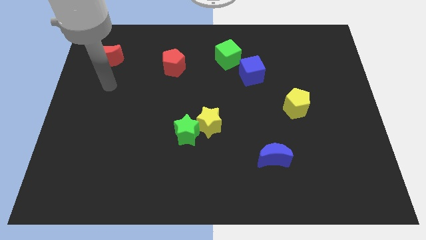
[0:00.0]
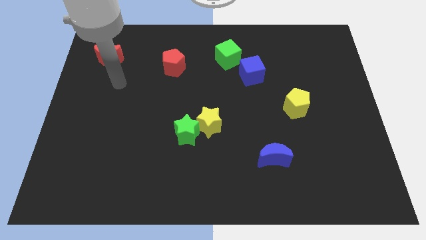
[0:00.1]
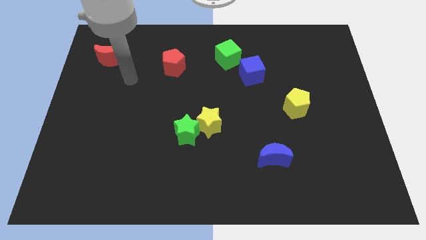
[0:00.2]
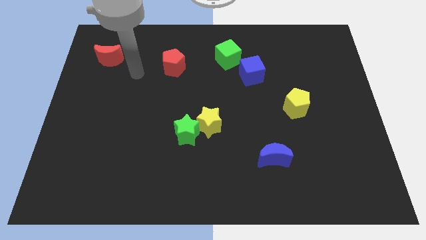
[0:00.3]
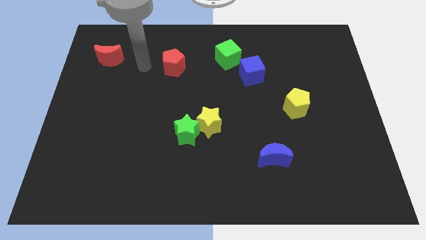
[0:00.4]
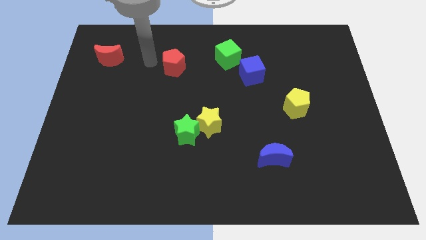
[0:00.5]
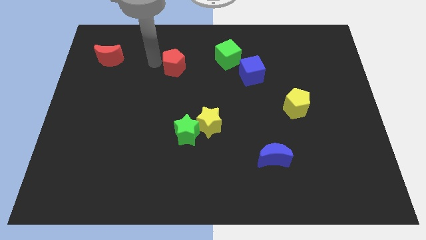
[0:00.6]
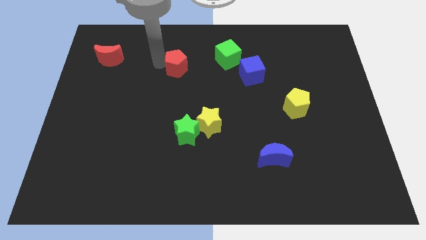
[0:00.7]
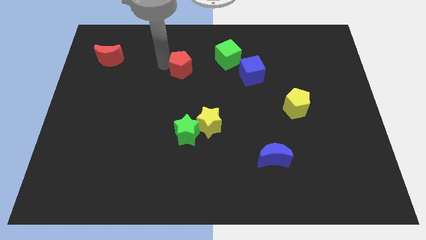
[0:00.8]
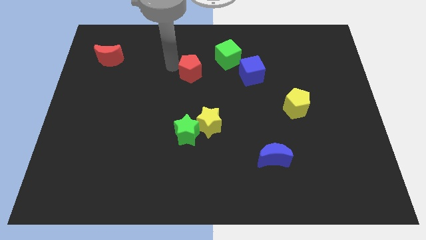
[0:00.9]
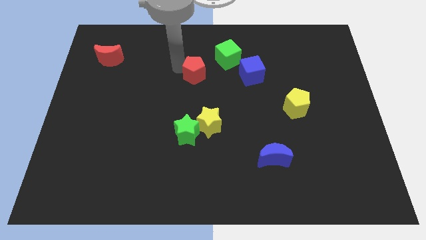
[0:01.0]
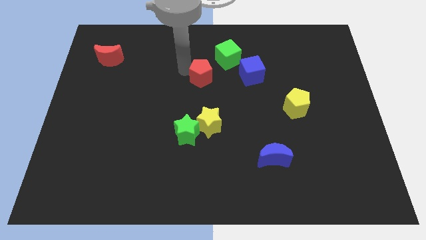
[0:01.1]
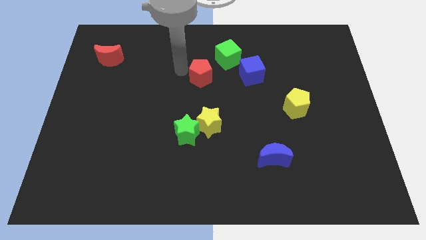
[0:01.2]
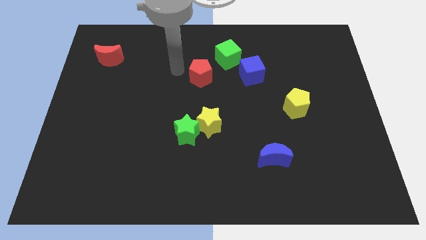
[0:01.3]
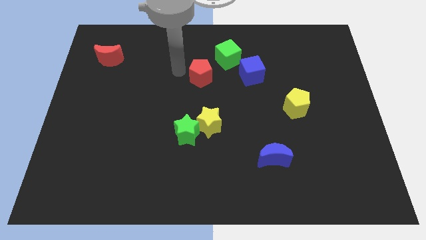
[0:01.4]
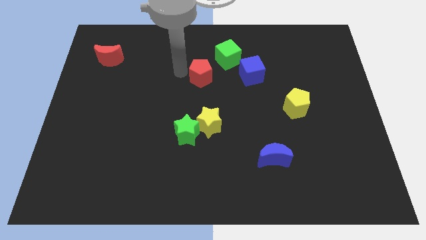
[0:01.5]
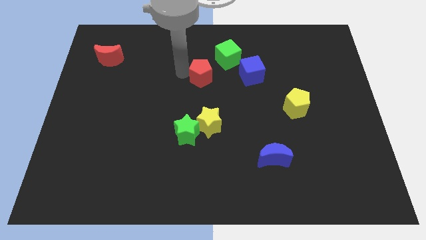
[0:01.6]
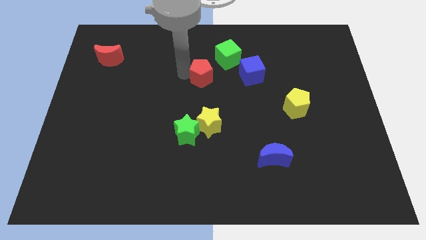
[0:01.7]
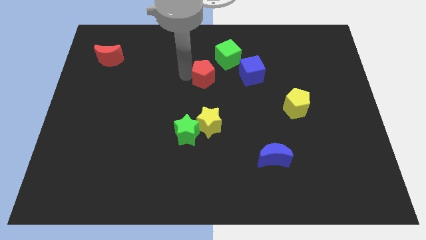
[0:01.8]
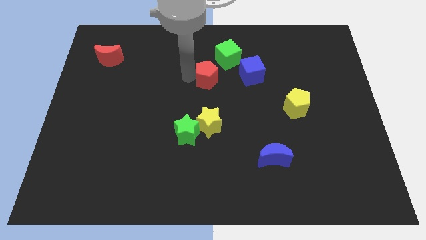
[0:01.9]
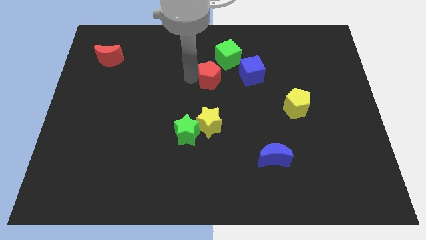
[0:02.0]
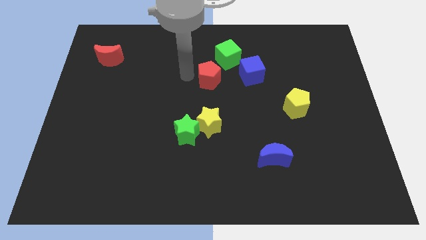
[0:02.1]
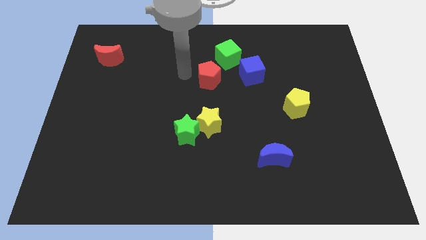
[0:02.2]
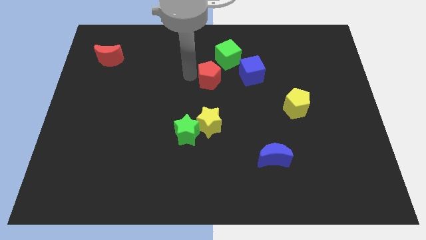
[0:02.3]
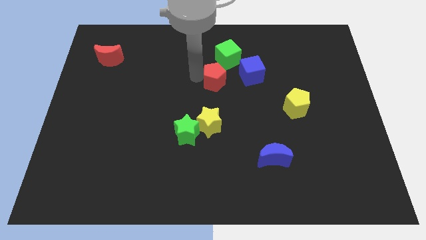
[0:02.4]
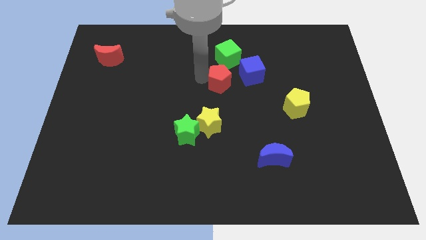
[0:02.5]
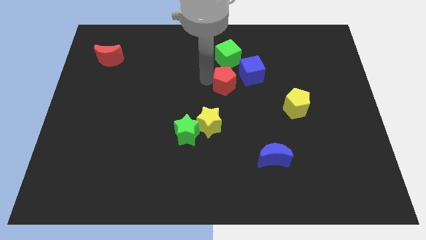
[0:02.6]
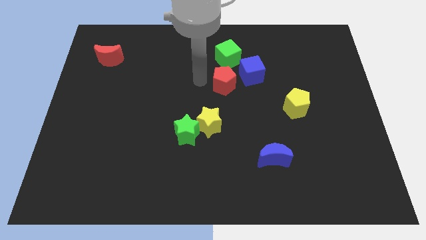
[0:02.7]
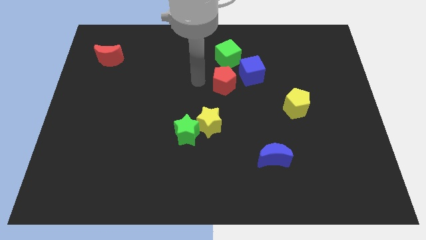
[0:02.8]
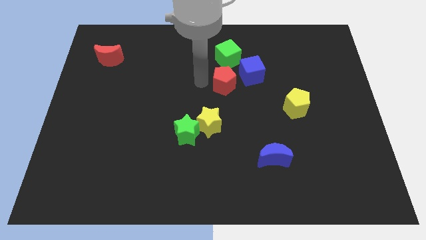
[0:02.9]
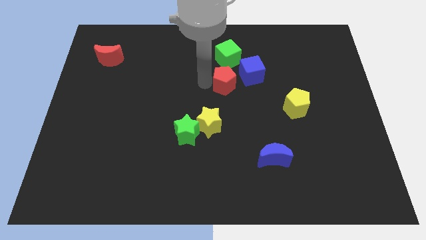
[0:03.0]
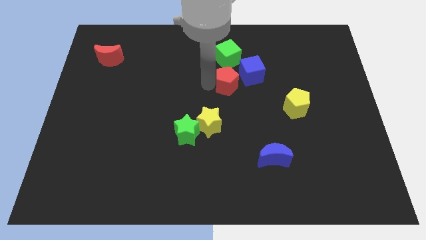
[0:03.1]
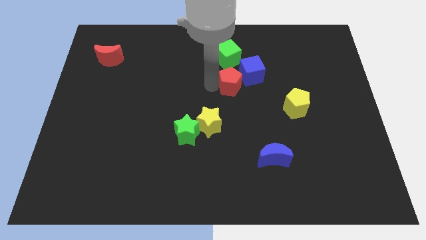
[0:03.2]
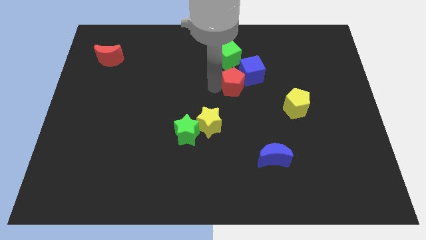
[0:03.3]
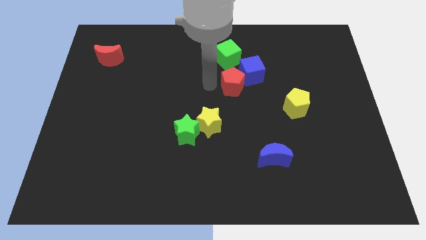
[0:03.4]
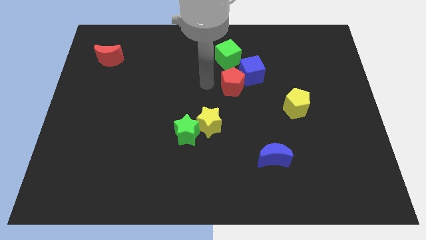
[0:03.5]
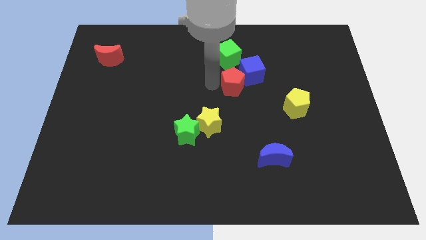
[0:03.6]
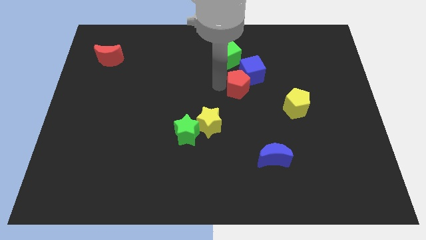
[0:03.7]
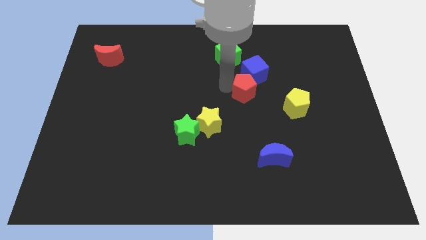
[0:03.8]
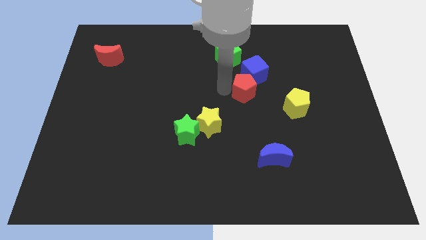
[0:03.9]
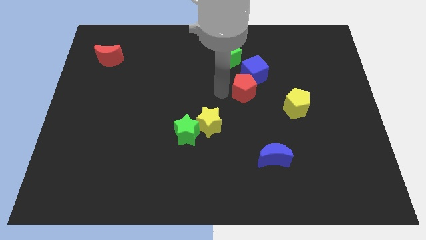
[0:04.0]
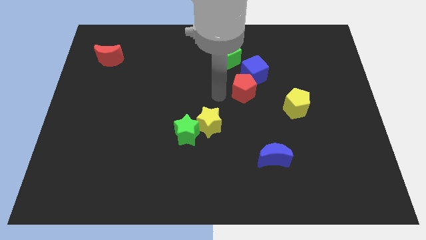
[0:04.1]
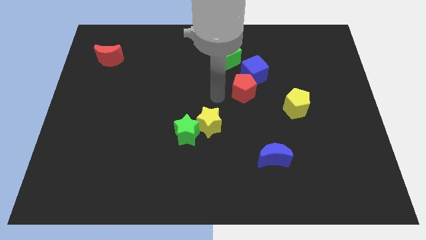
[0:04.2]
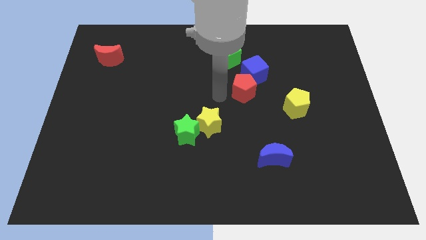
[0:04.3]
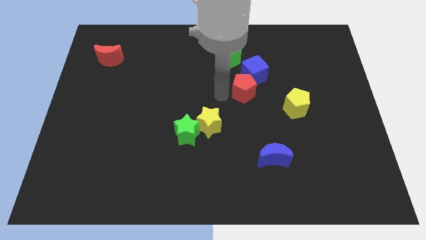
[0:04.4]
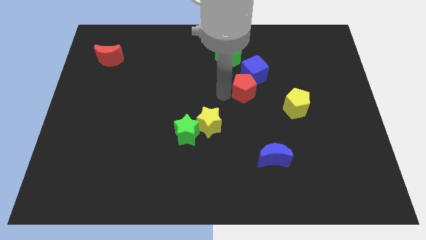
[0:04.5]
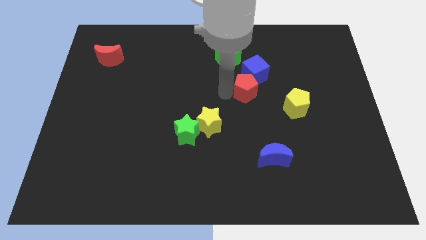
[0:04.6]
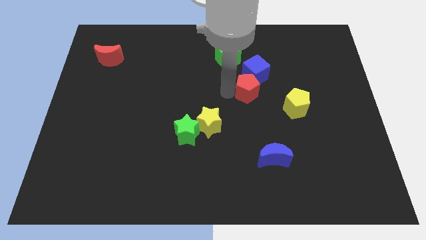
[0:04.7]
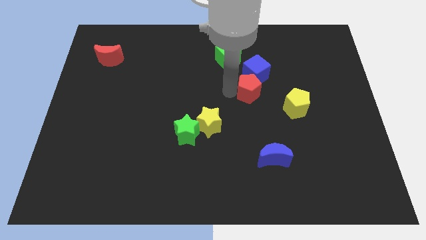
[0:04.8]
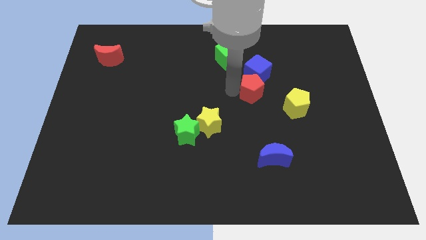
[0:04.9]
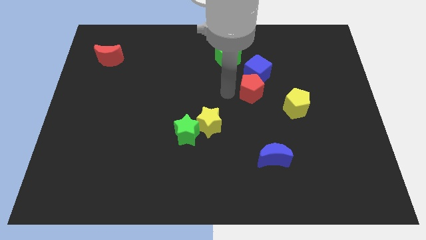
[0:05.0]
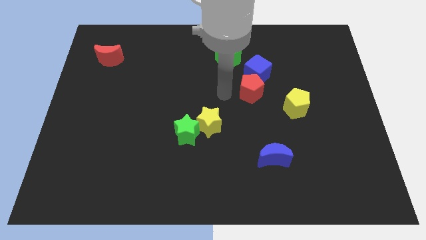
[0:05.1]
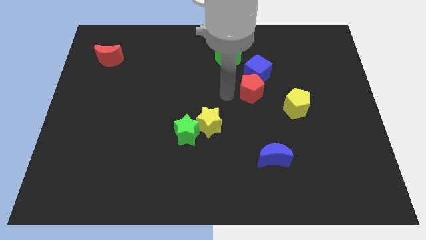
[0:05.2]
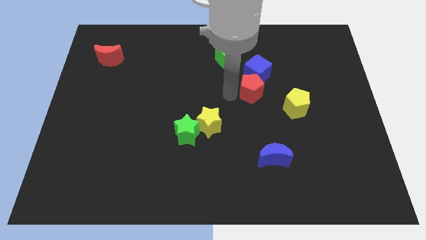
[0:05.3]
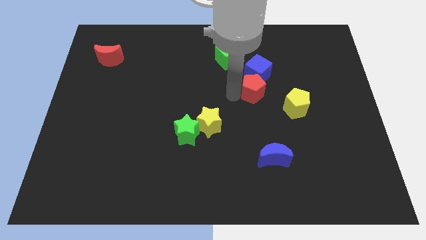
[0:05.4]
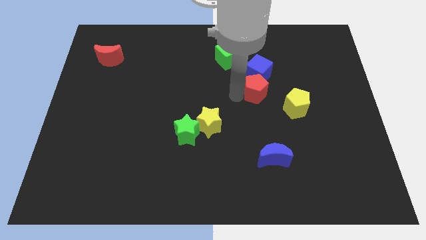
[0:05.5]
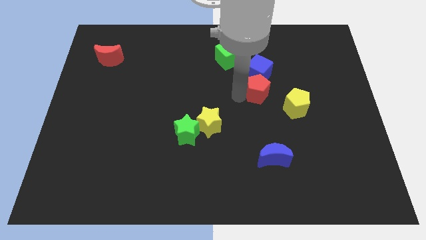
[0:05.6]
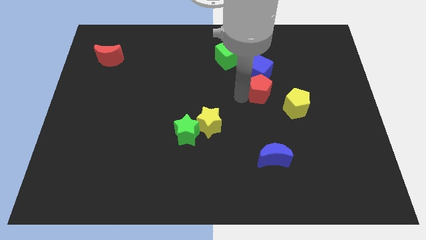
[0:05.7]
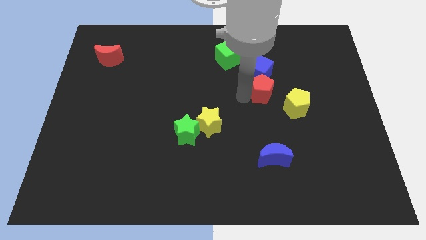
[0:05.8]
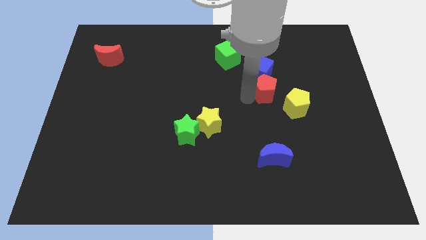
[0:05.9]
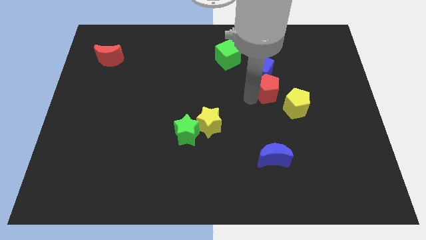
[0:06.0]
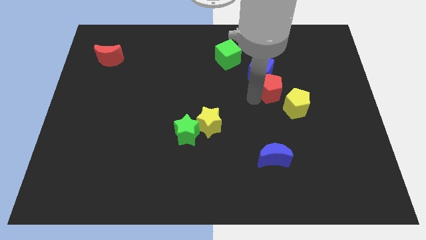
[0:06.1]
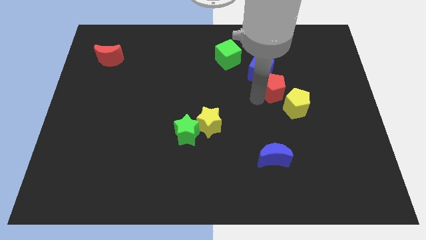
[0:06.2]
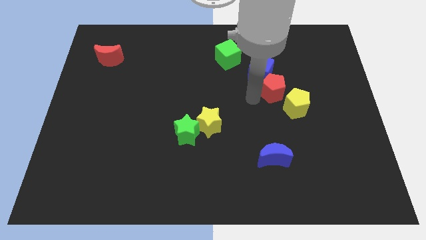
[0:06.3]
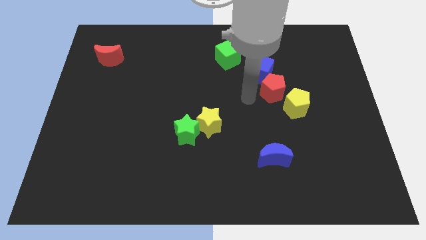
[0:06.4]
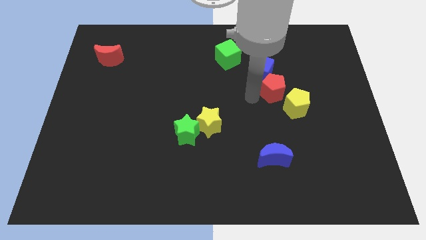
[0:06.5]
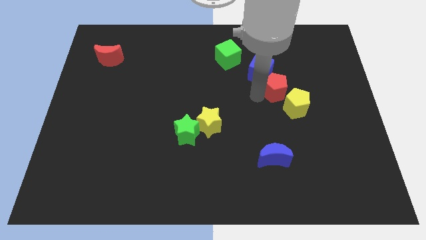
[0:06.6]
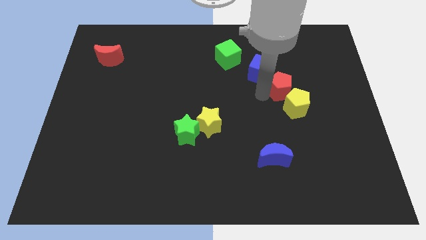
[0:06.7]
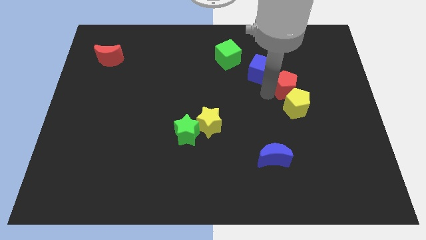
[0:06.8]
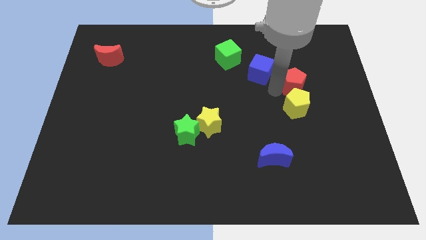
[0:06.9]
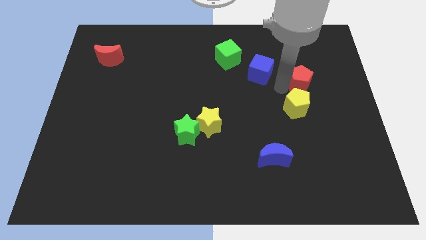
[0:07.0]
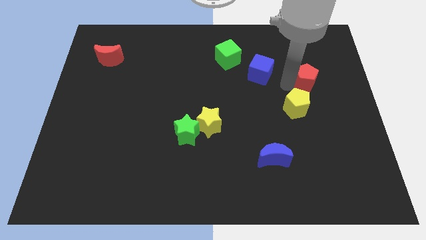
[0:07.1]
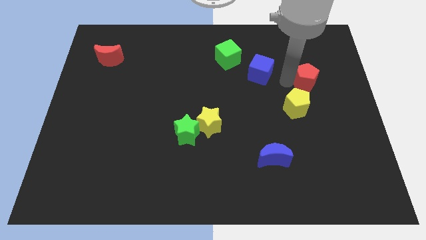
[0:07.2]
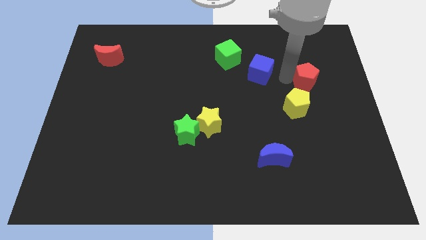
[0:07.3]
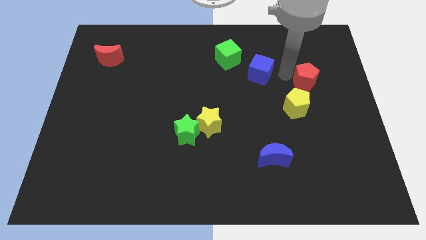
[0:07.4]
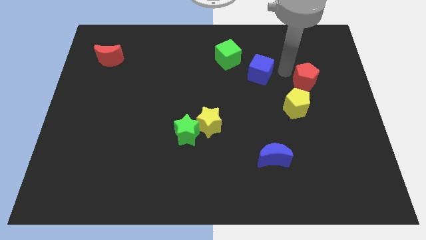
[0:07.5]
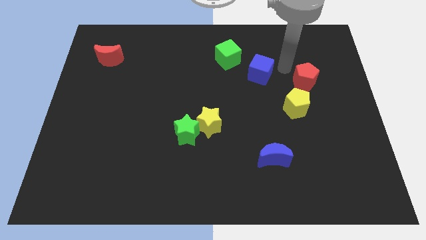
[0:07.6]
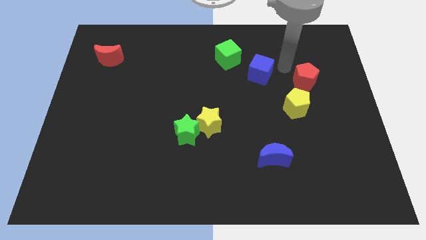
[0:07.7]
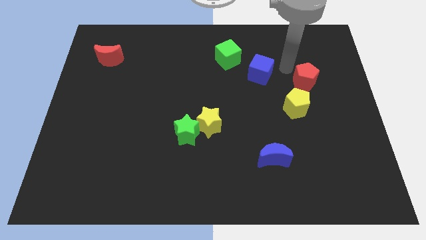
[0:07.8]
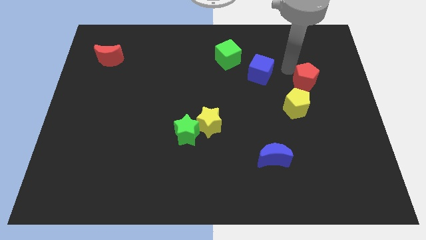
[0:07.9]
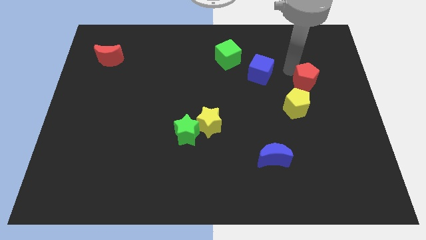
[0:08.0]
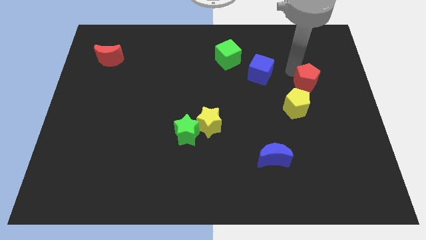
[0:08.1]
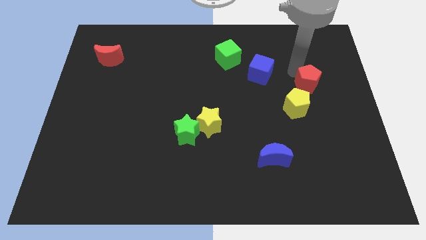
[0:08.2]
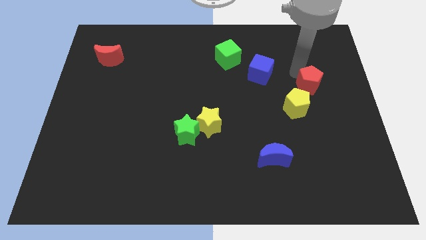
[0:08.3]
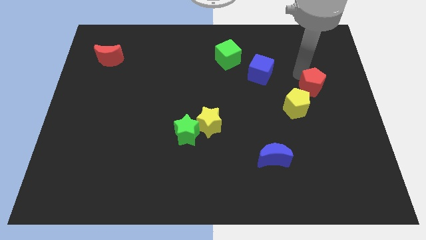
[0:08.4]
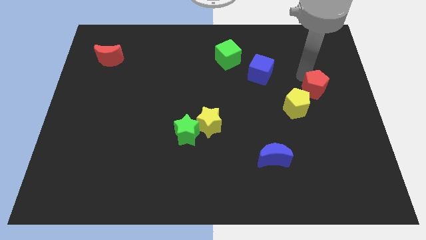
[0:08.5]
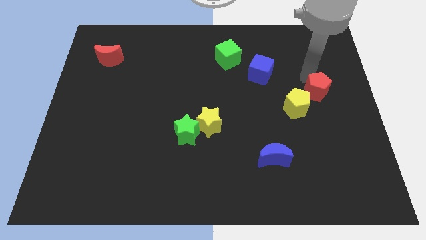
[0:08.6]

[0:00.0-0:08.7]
push the red pentagon to the right side of the board

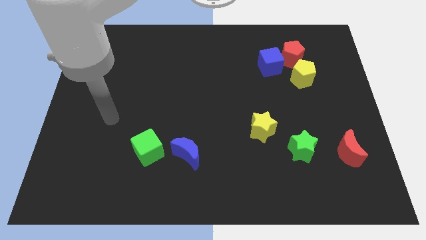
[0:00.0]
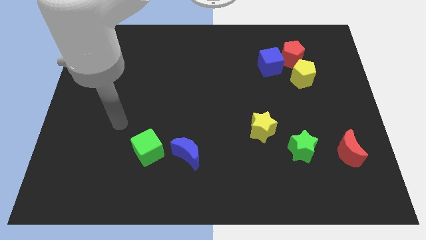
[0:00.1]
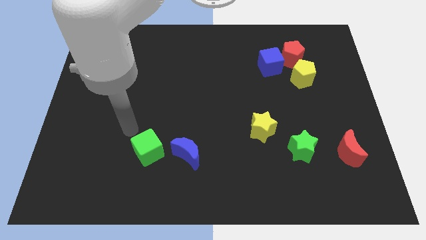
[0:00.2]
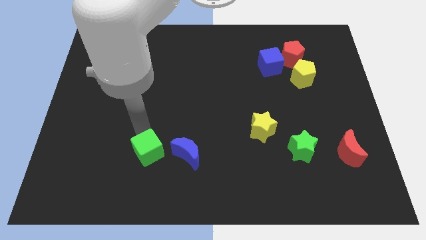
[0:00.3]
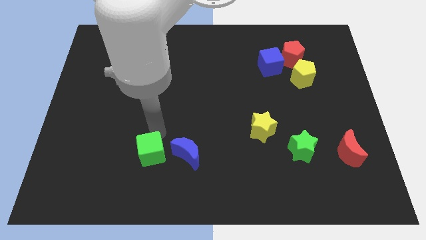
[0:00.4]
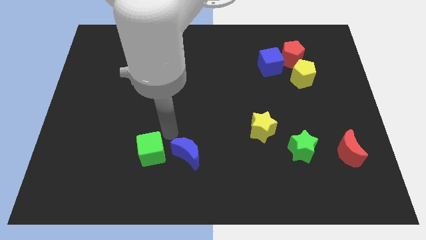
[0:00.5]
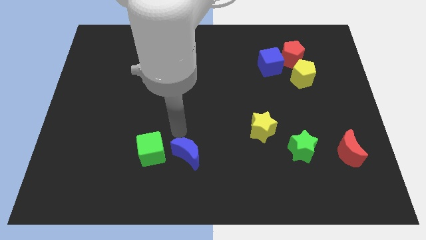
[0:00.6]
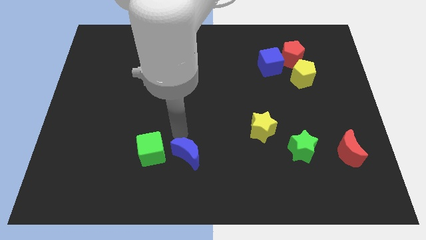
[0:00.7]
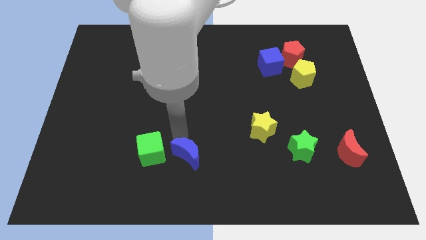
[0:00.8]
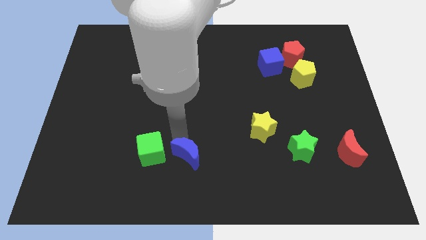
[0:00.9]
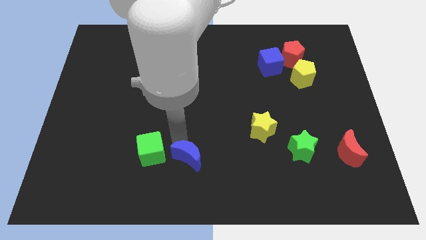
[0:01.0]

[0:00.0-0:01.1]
push the blue moon to the bottom side
